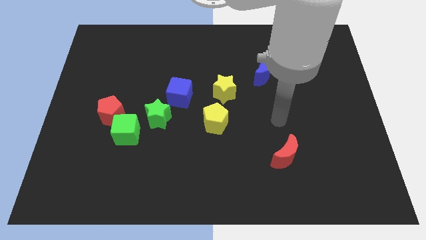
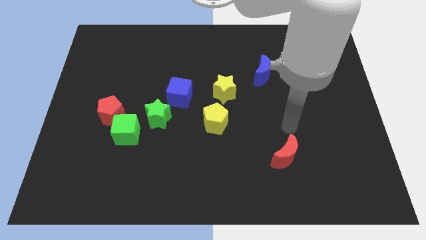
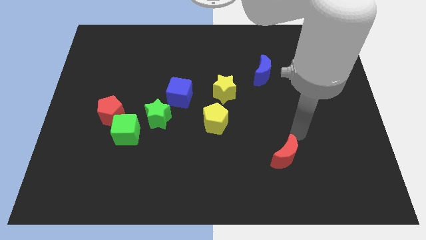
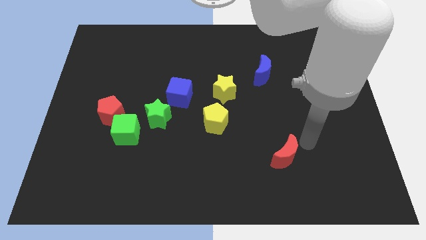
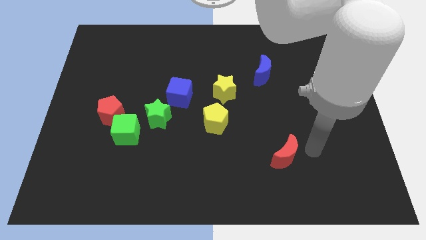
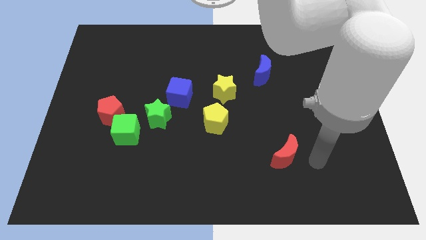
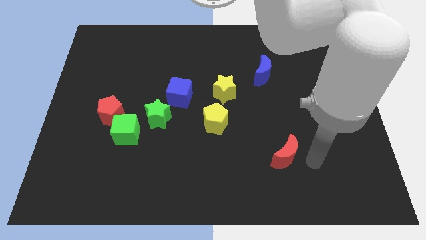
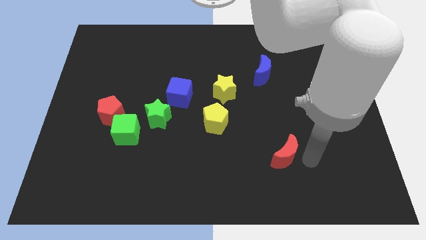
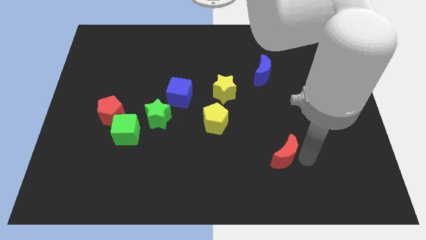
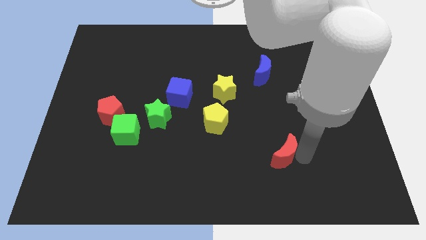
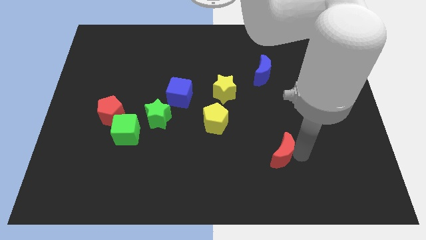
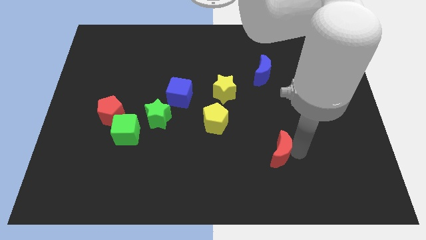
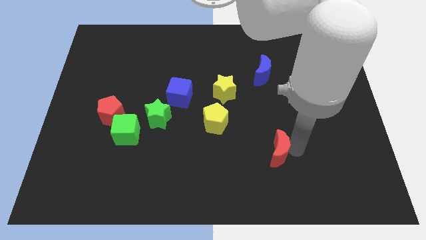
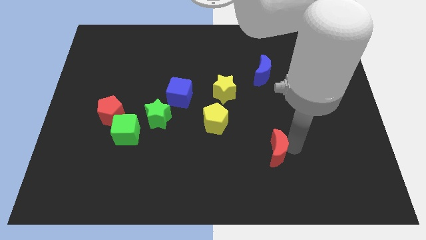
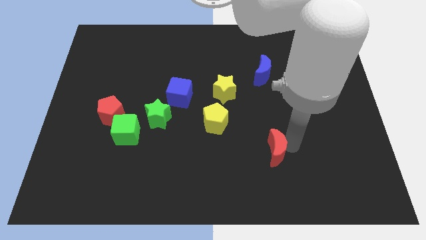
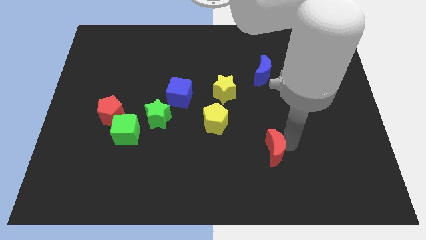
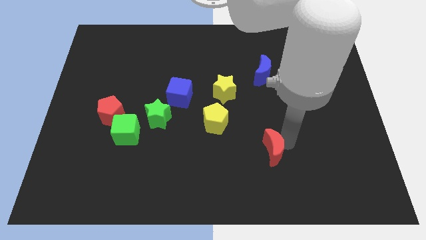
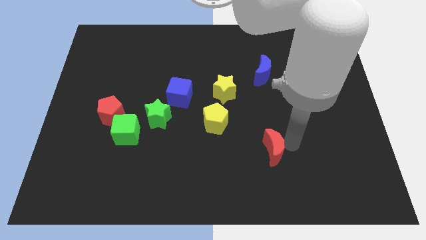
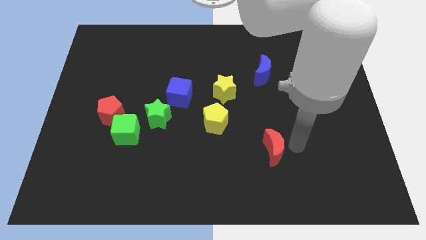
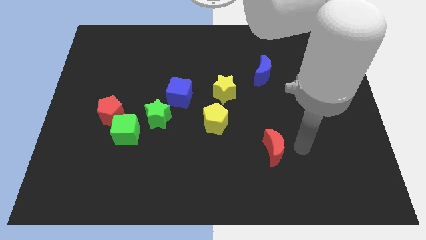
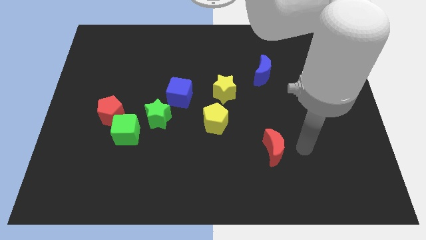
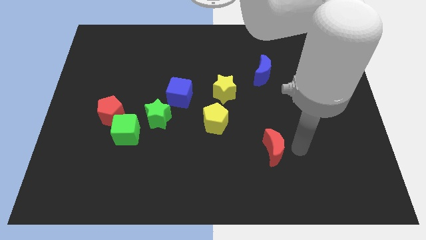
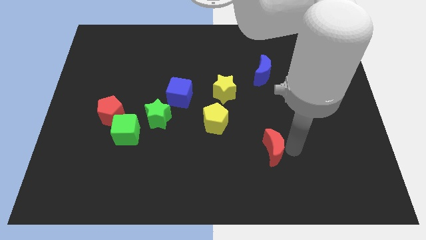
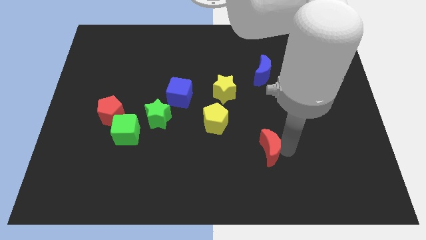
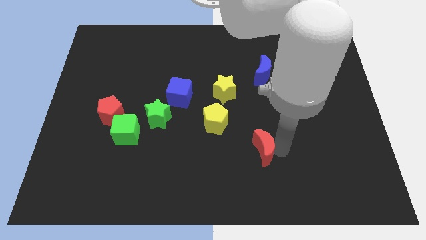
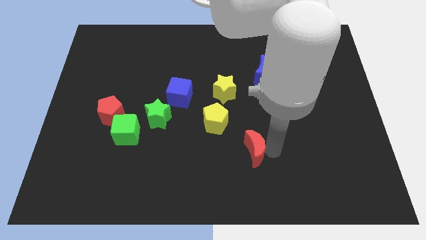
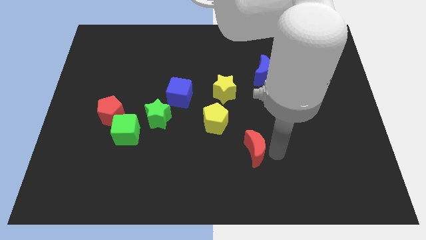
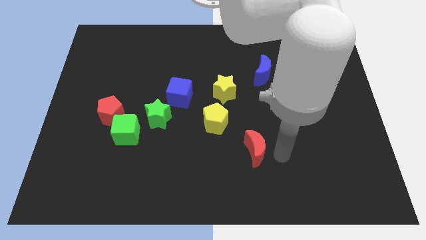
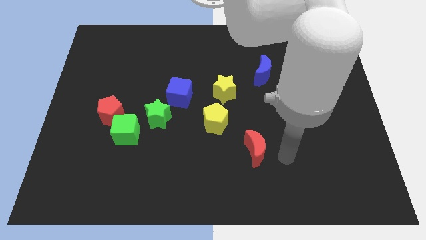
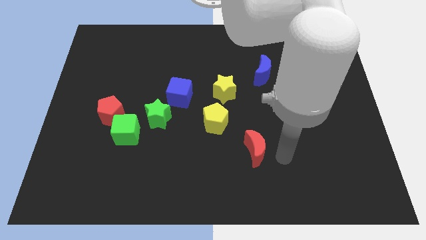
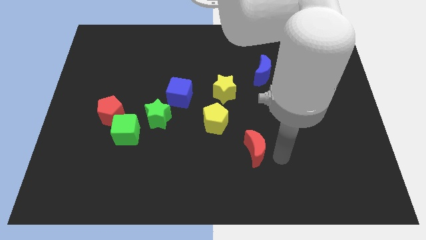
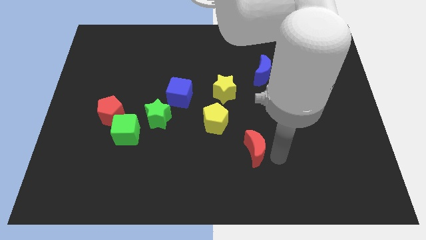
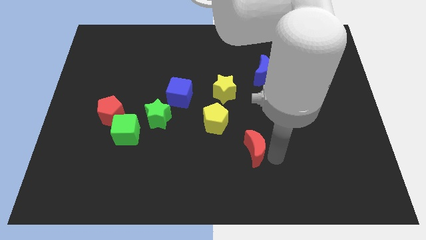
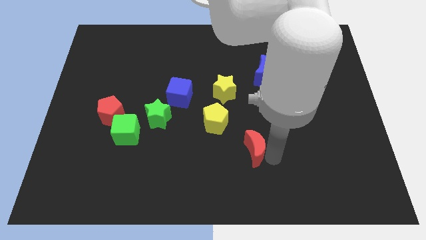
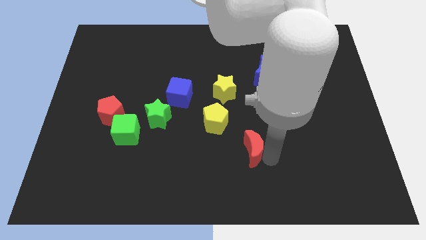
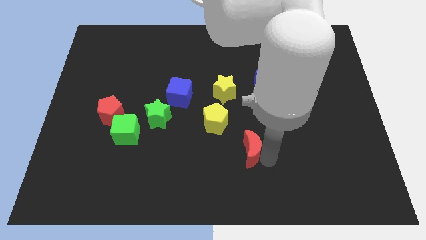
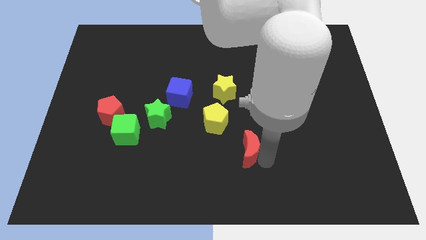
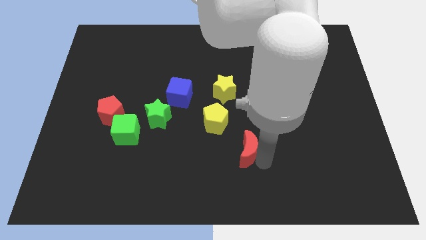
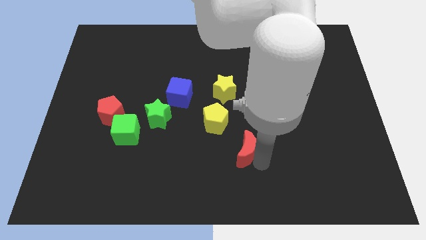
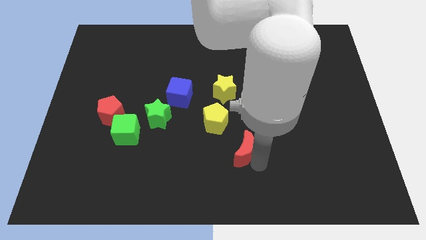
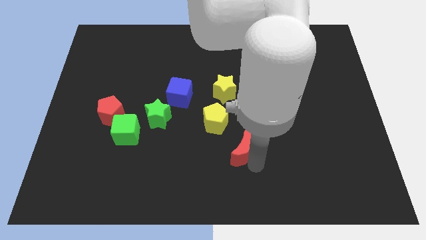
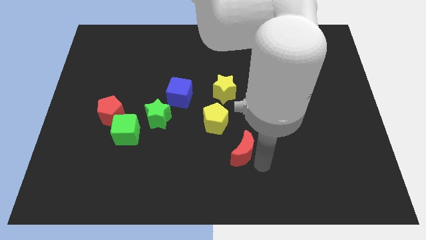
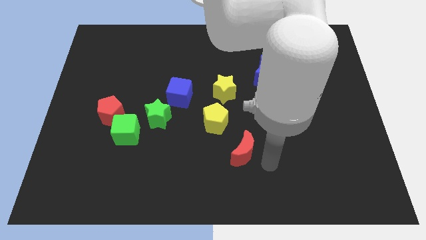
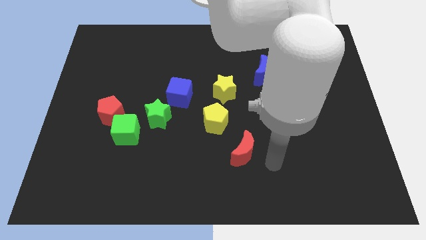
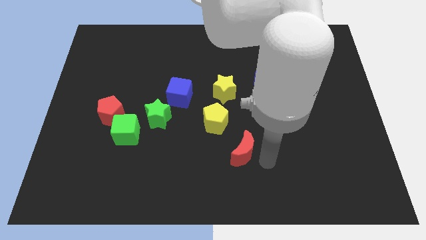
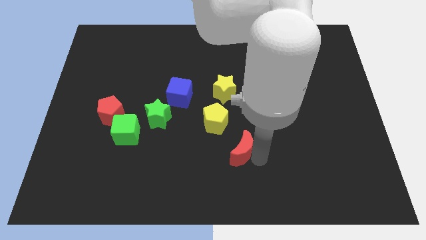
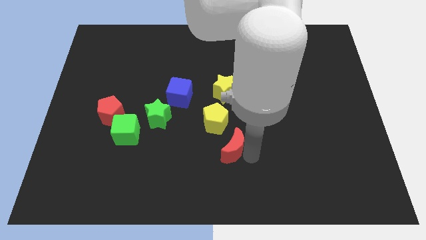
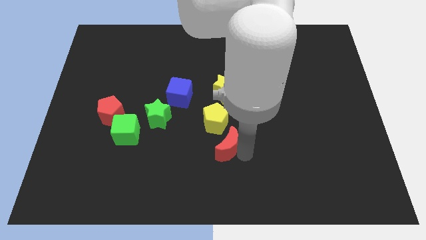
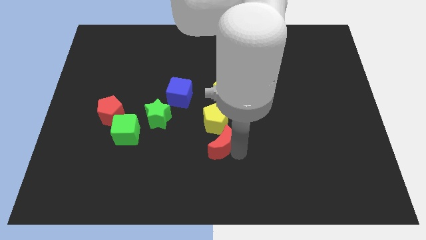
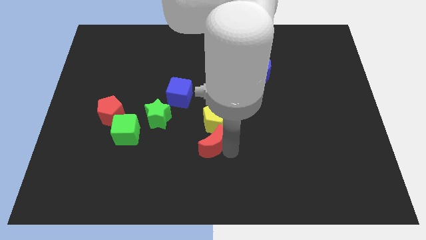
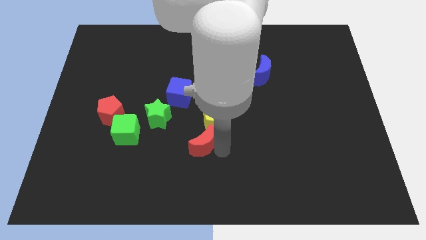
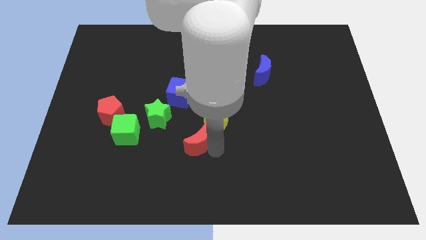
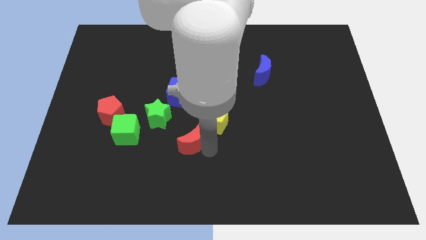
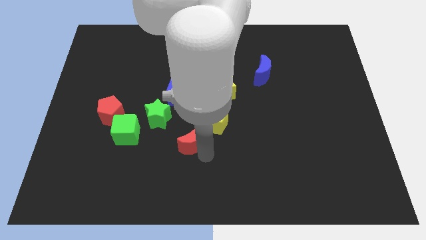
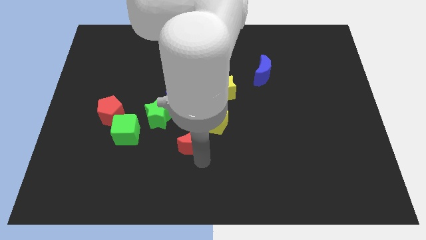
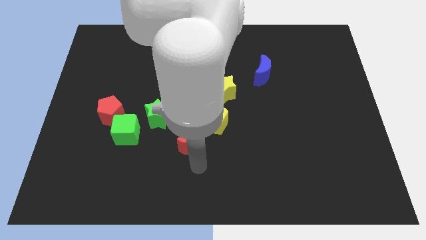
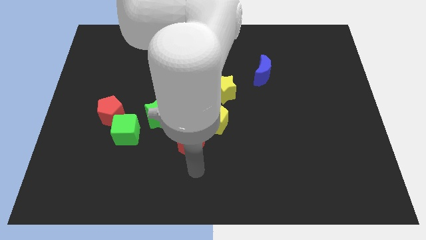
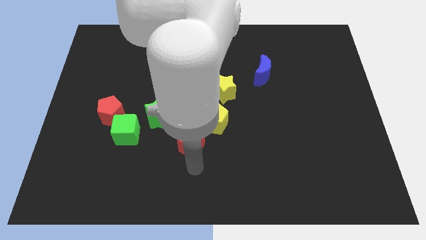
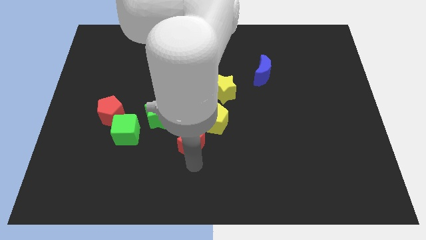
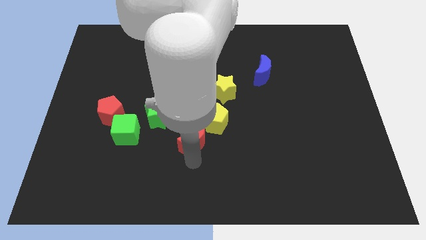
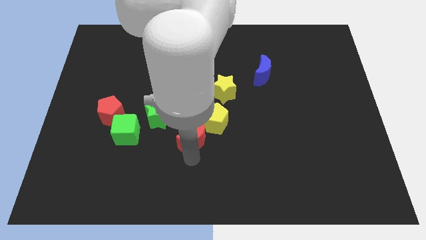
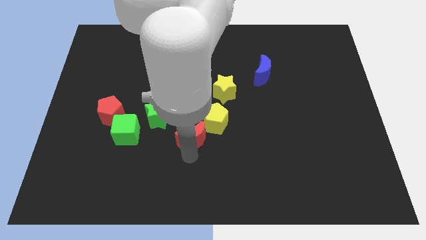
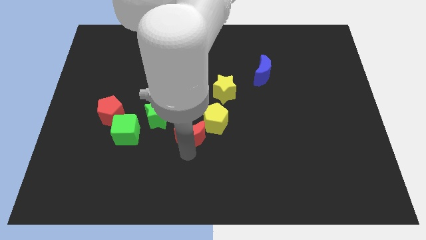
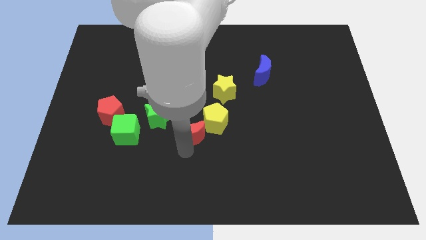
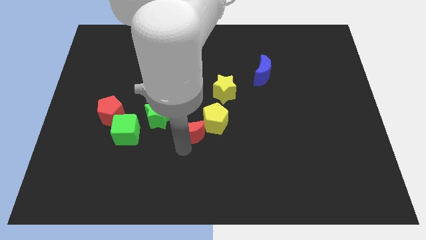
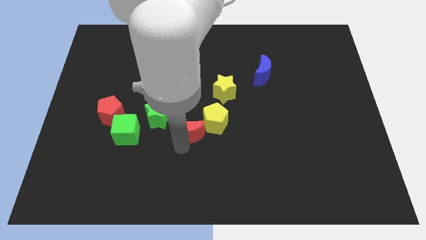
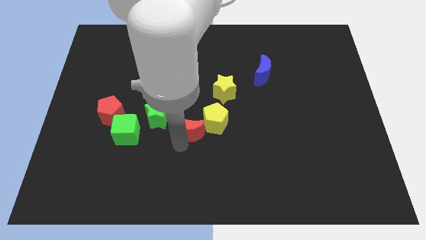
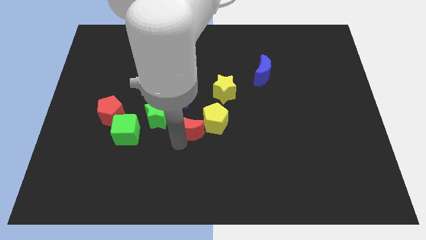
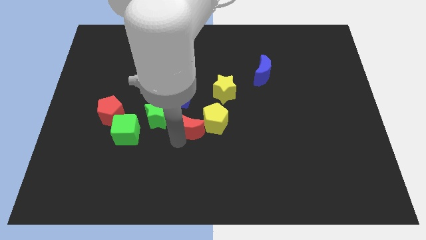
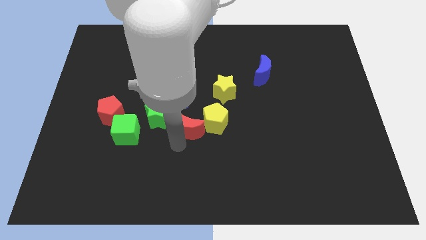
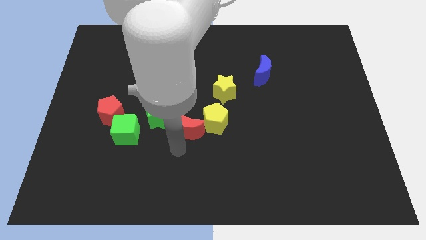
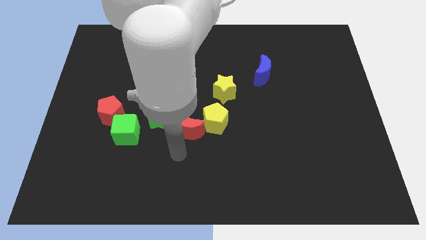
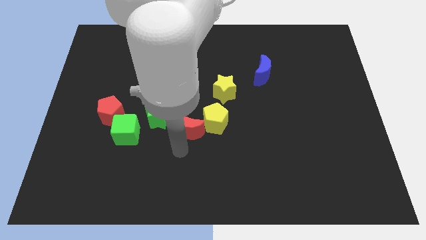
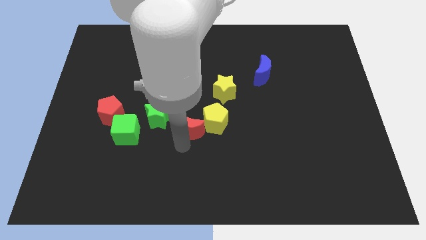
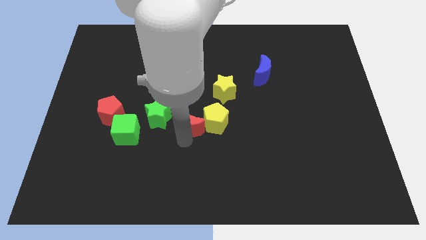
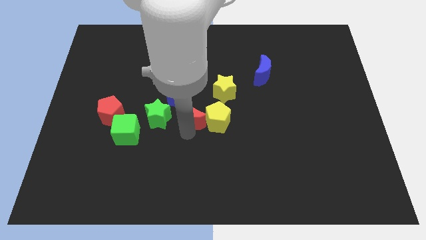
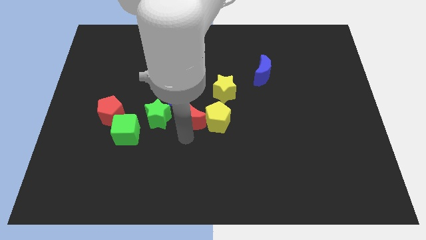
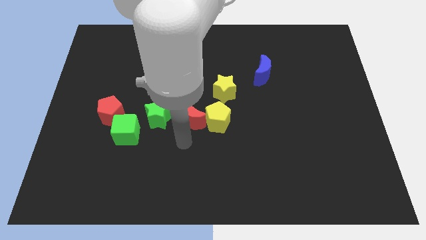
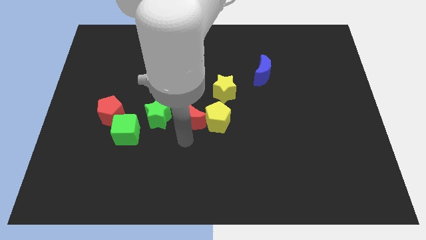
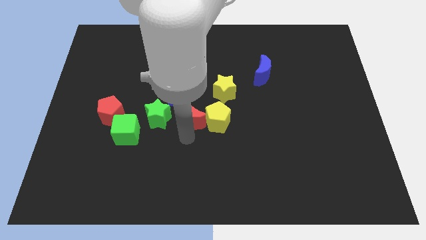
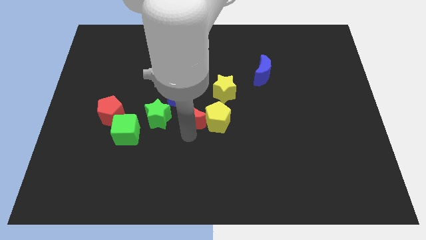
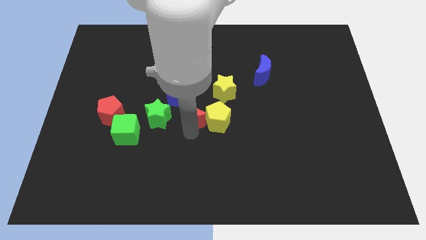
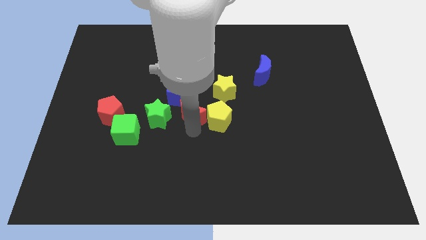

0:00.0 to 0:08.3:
slide the red moon upwards and then left

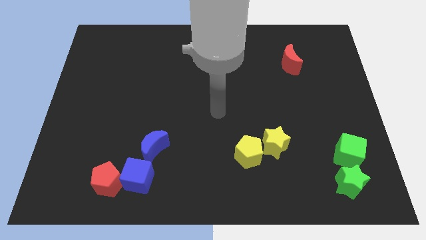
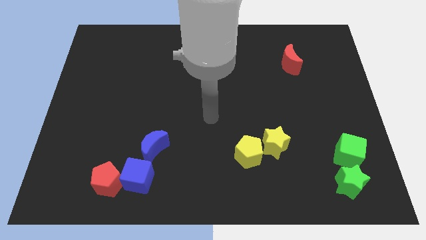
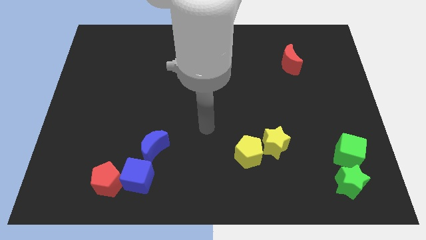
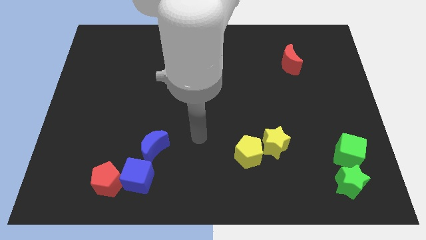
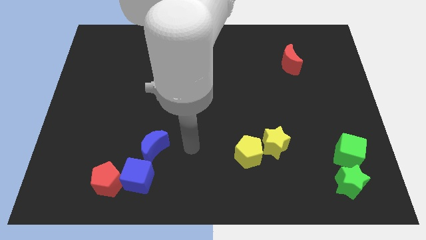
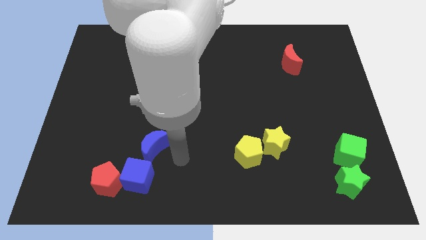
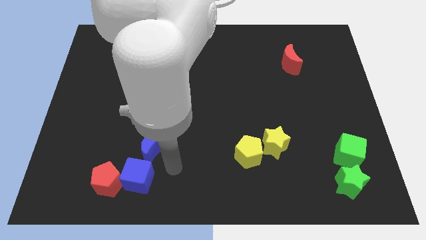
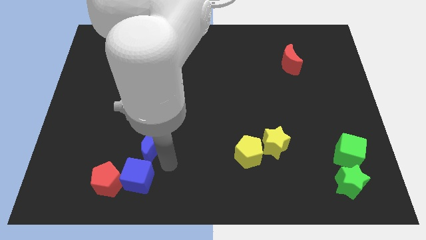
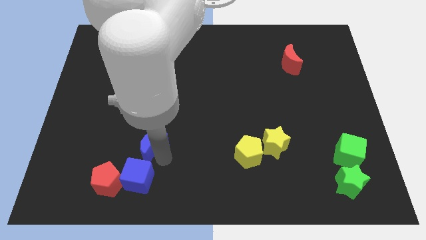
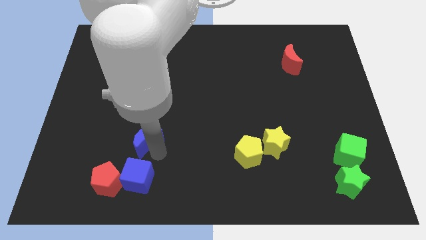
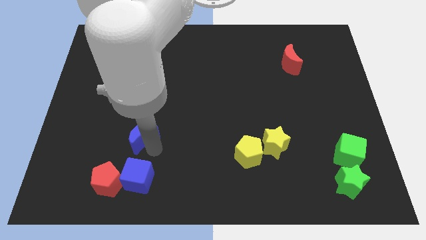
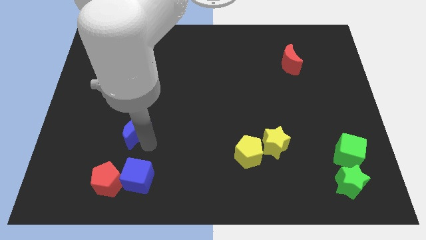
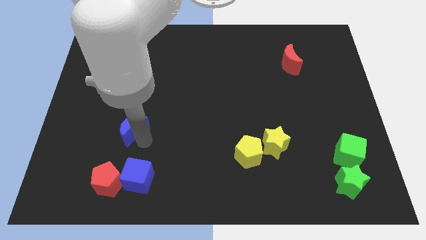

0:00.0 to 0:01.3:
slightly slide the blue moon up and then left
